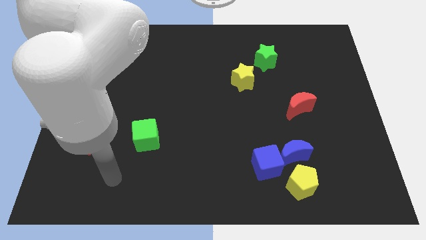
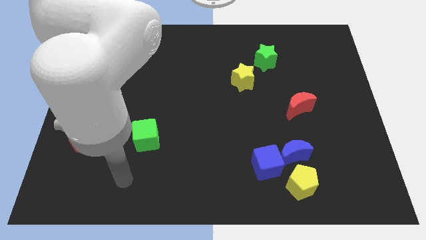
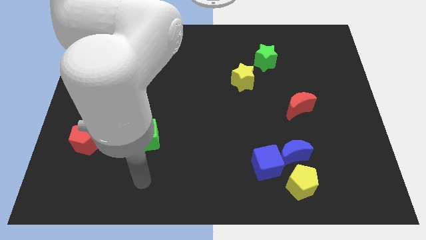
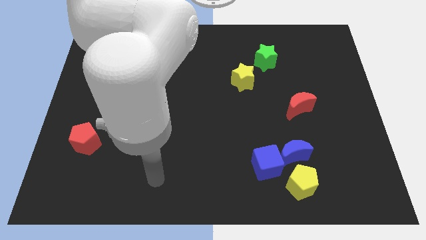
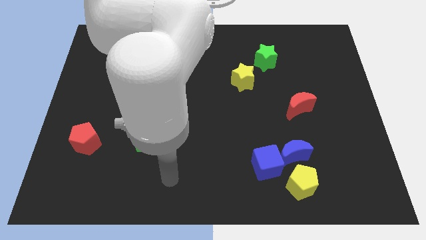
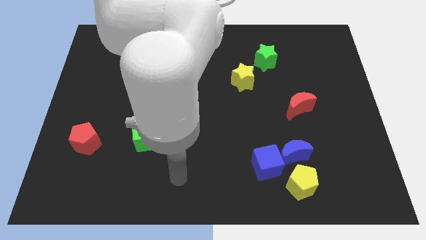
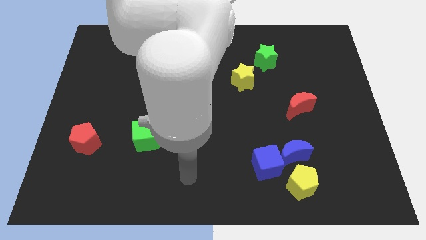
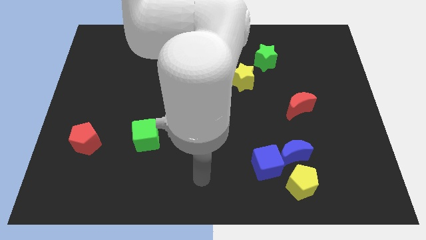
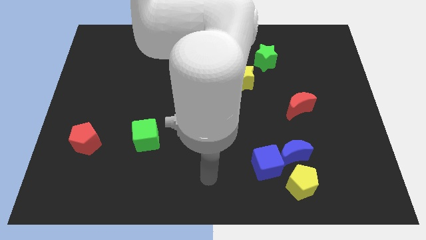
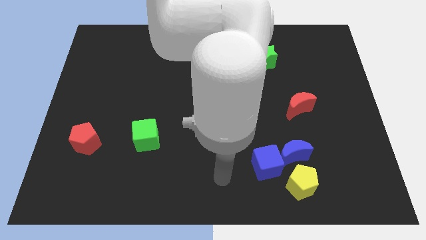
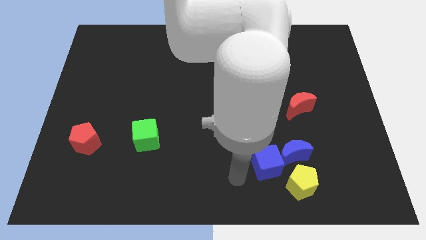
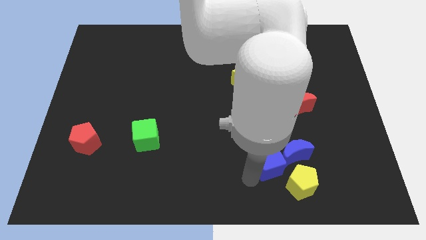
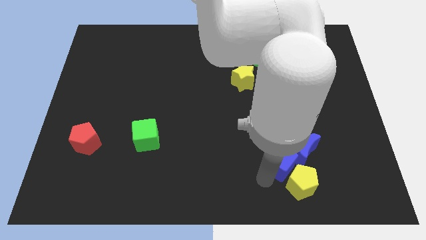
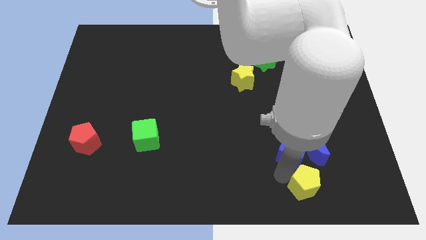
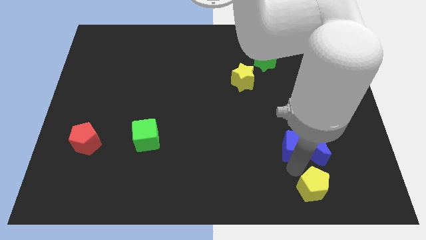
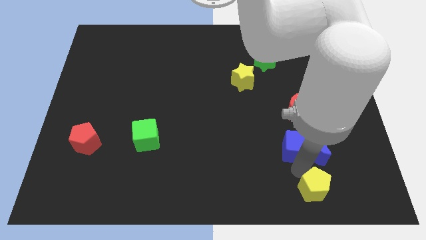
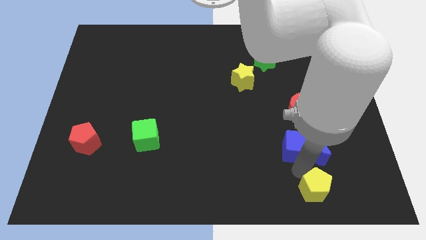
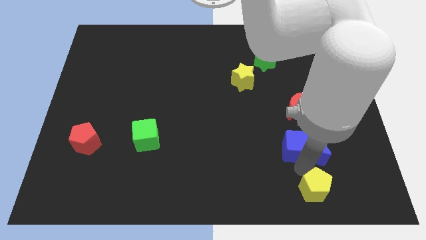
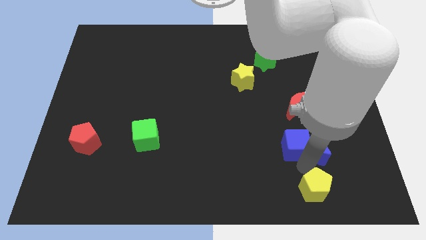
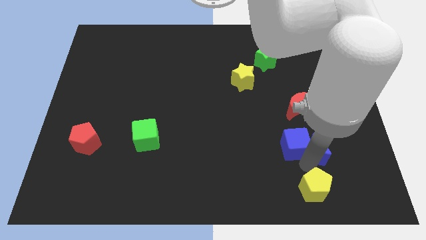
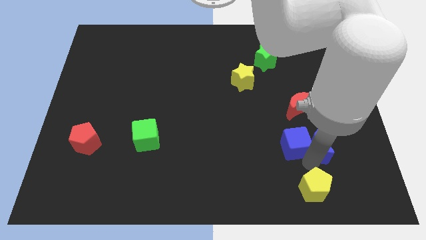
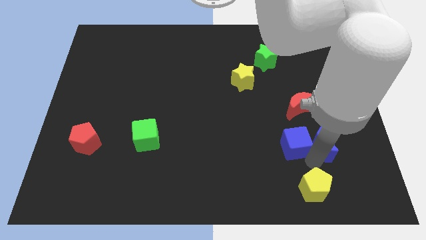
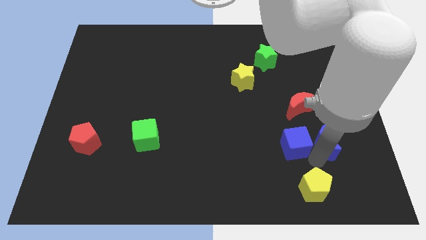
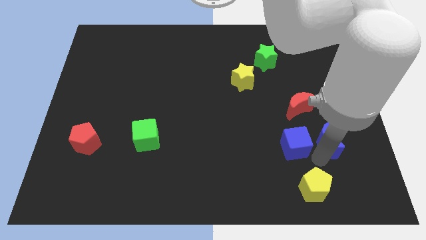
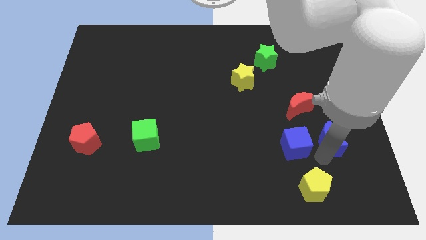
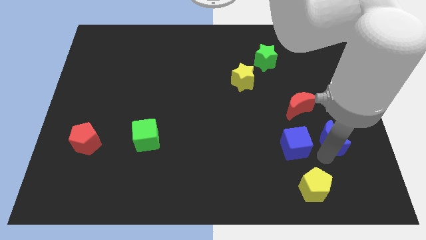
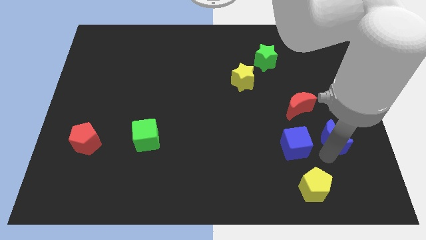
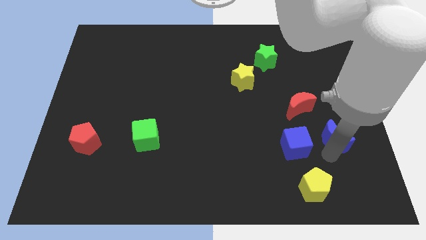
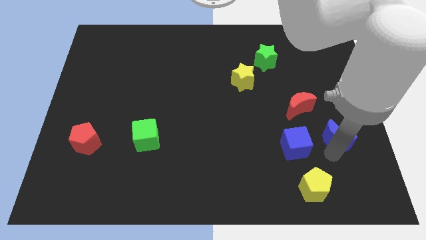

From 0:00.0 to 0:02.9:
pull the blue moon apart from the blue cube and yellow pentagon

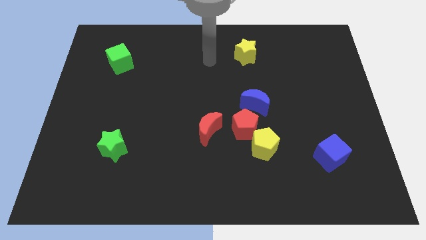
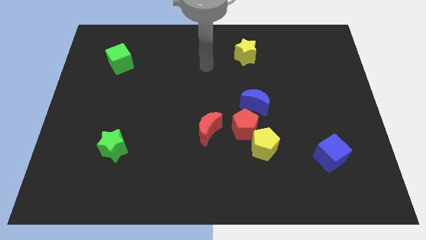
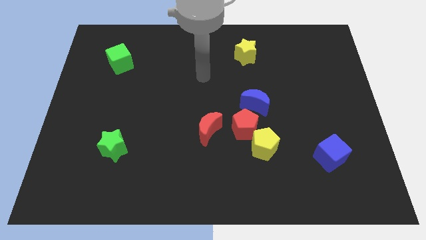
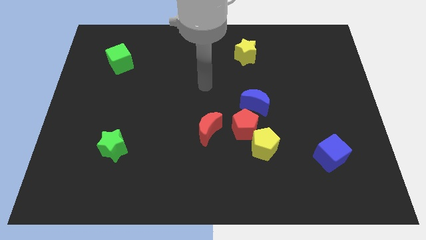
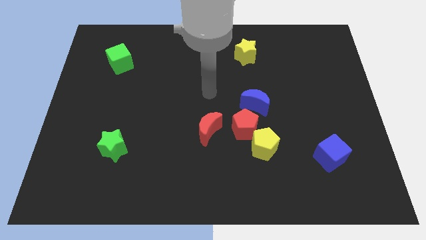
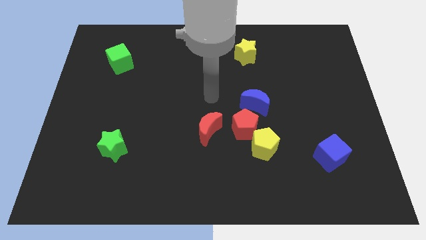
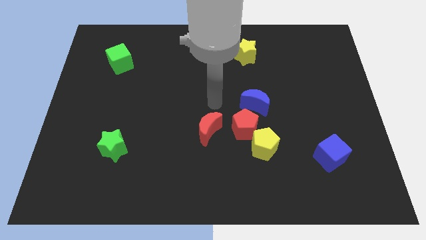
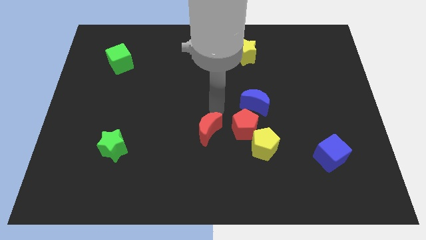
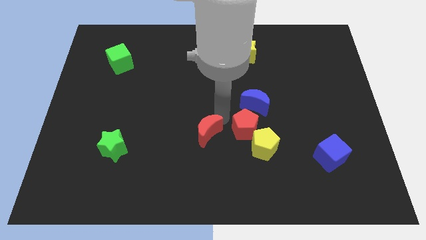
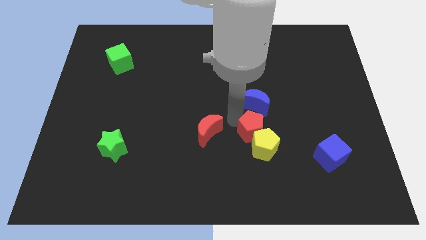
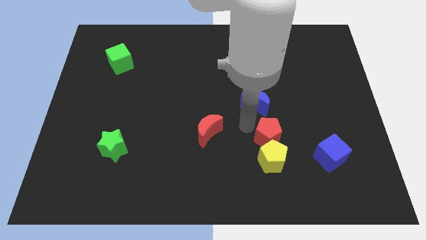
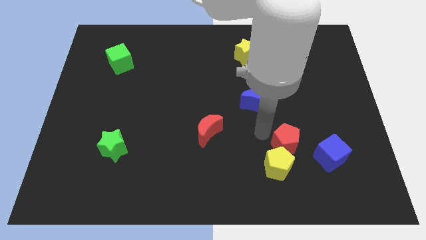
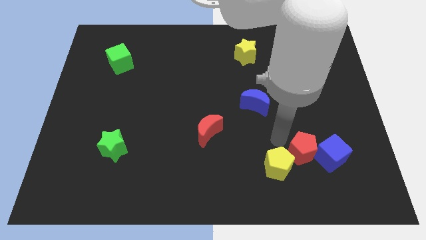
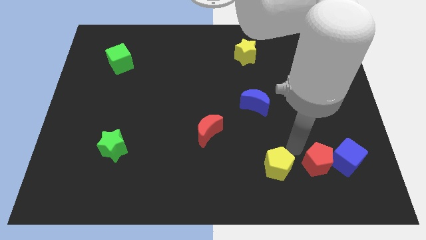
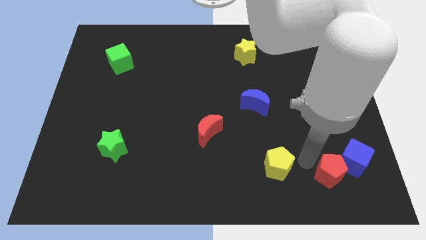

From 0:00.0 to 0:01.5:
pull the yellow pentagon apart from the red pentagon

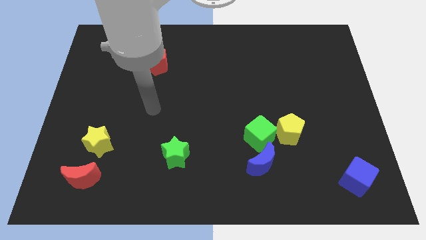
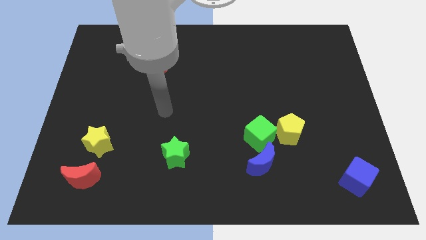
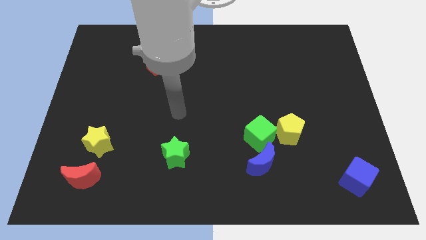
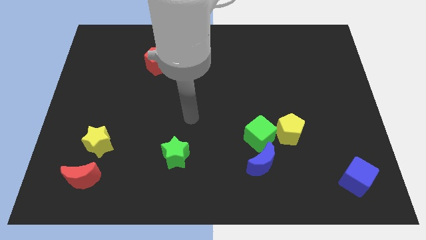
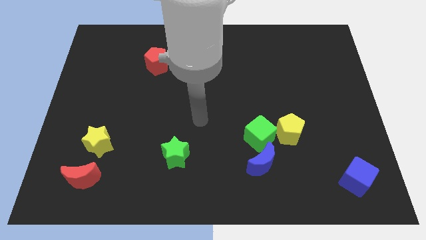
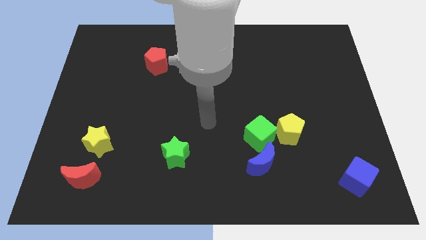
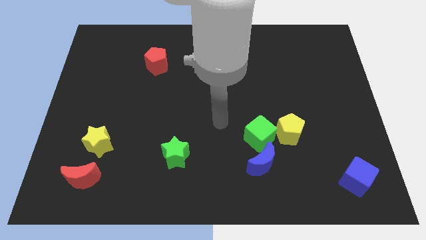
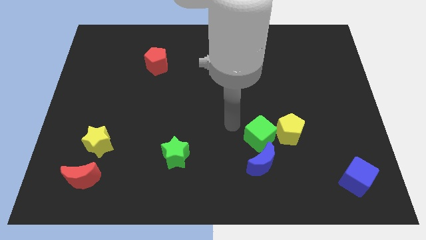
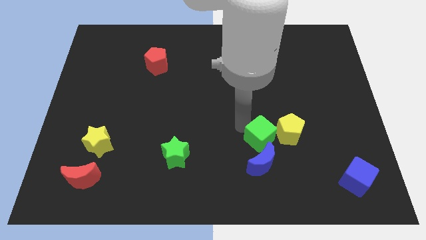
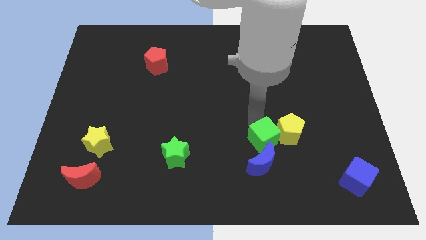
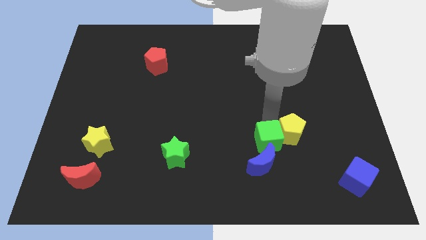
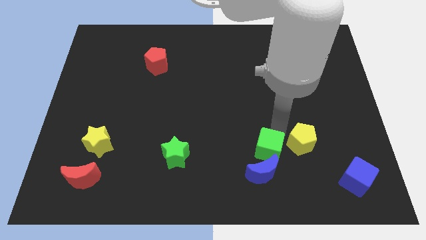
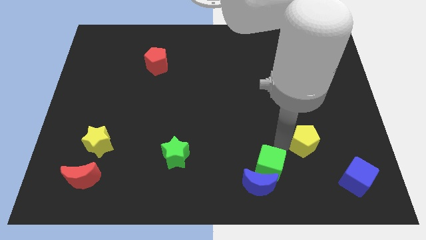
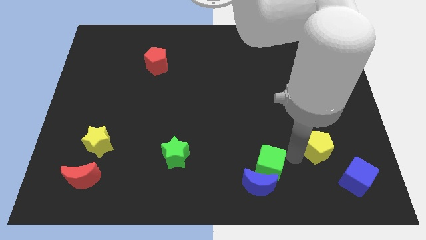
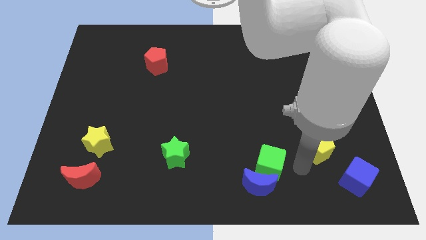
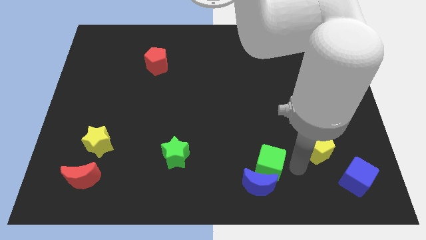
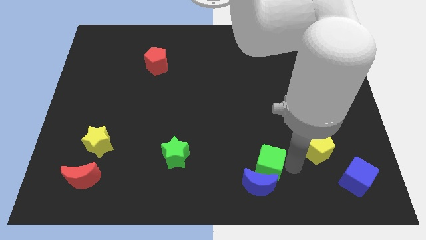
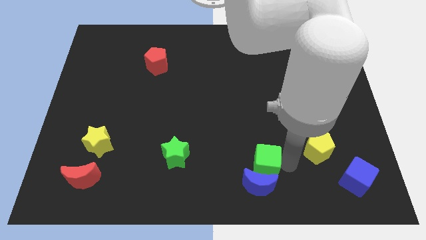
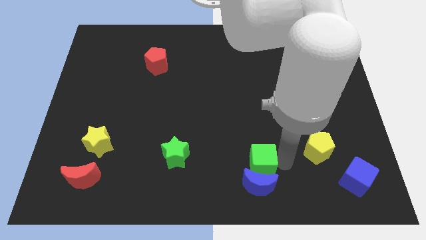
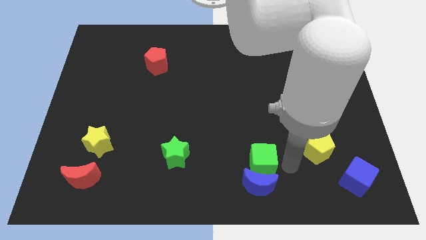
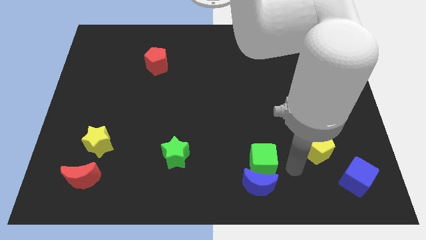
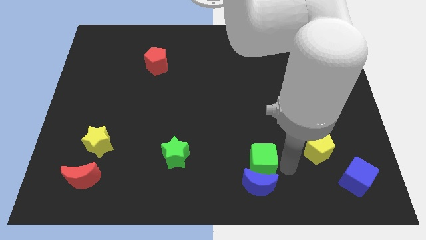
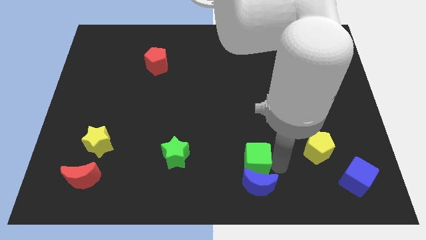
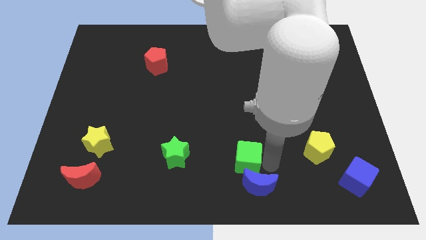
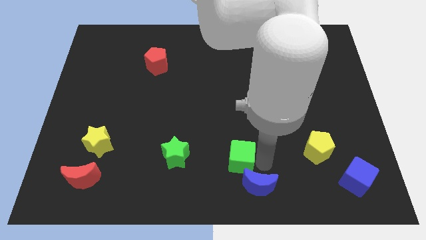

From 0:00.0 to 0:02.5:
separate the green cube from the yellow pentagon and blue moon

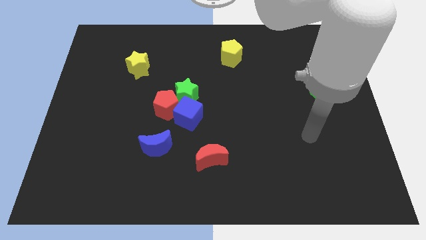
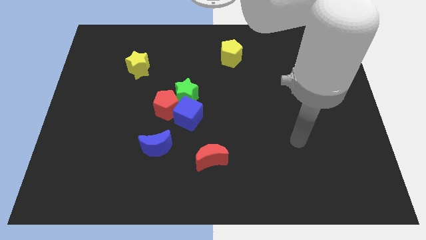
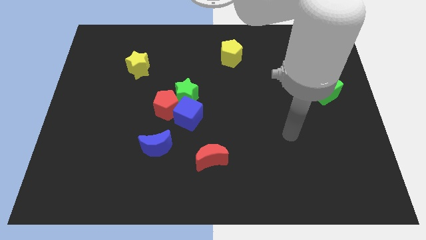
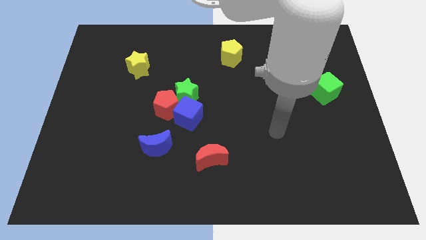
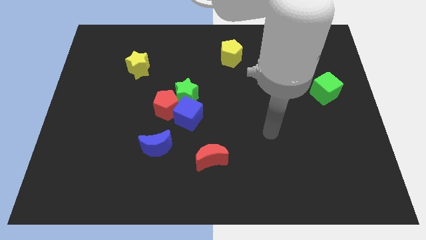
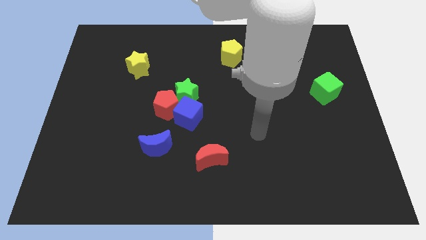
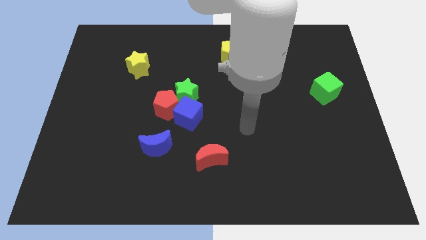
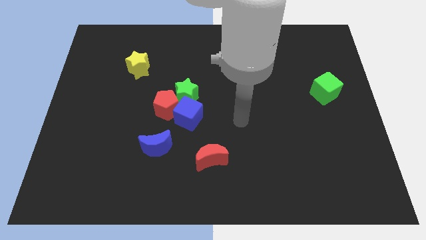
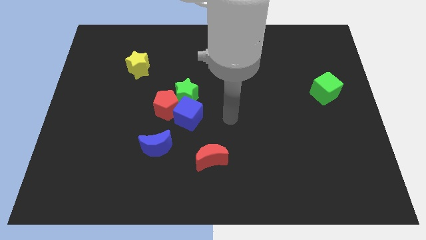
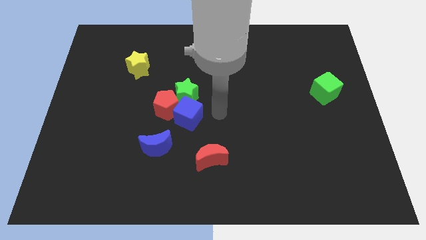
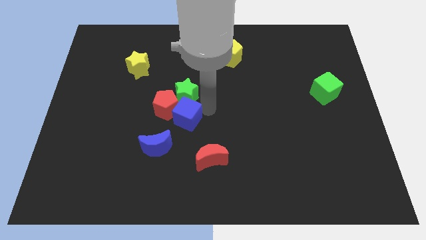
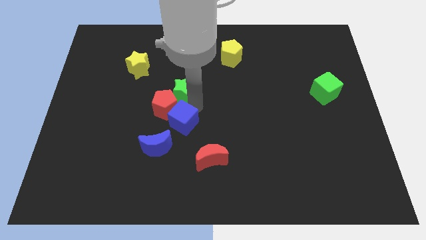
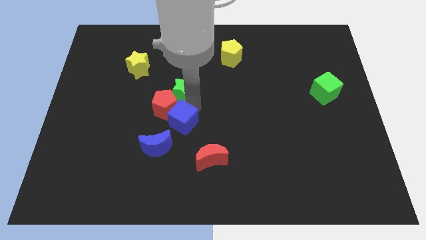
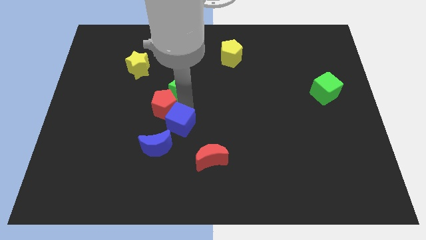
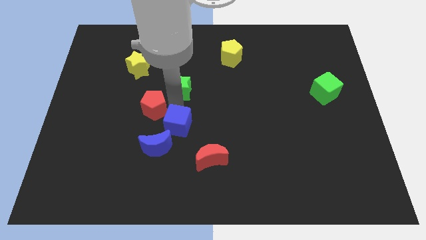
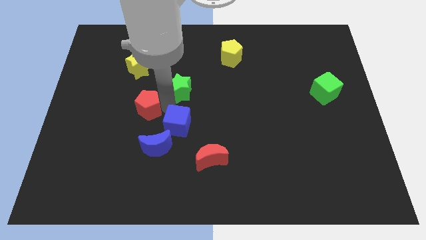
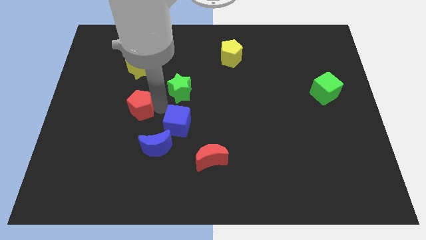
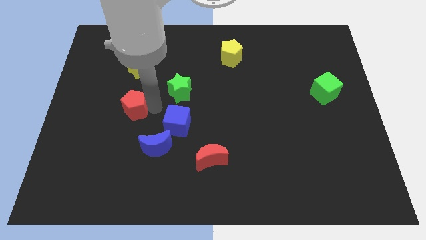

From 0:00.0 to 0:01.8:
pull the red pentagon apart from the green star and blue cube

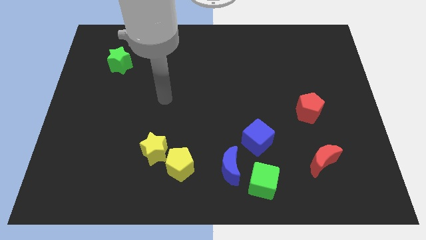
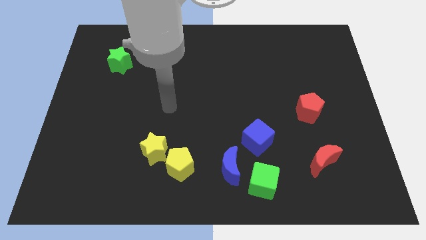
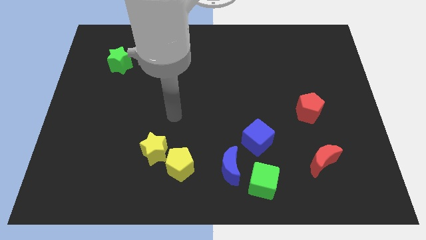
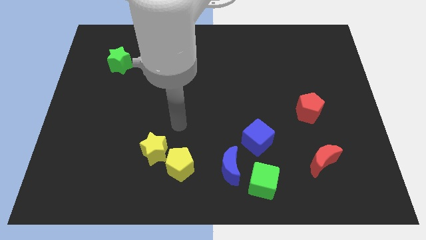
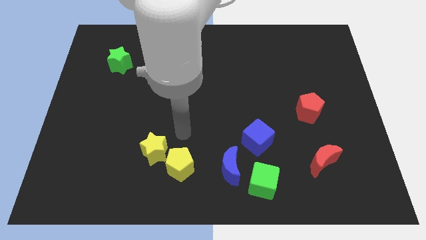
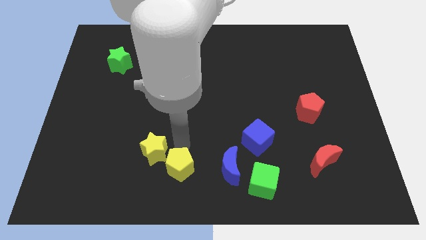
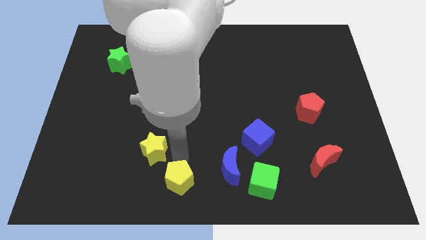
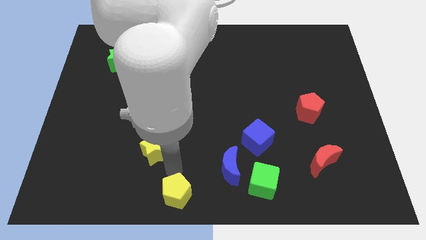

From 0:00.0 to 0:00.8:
separate the yellow star from the yellow pentagon
